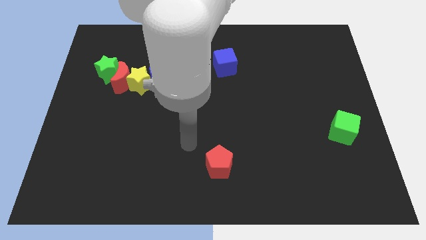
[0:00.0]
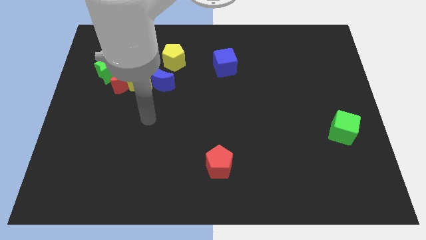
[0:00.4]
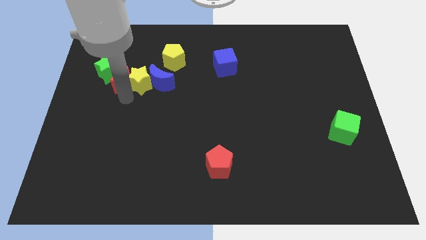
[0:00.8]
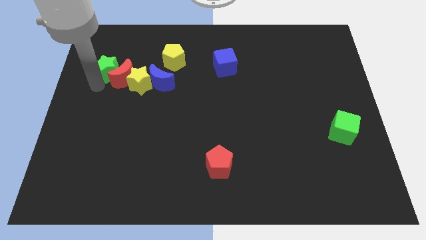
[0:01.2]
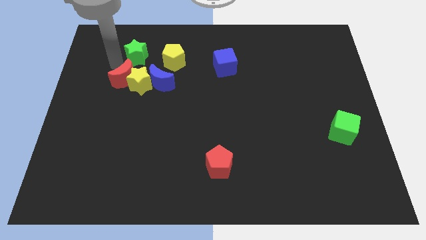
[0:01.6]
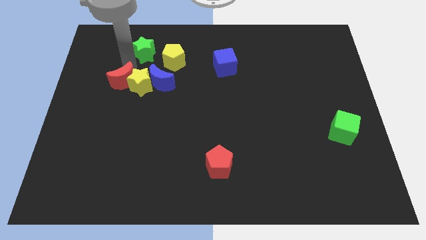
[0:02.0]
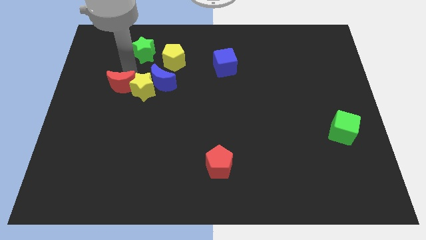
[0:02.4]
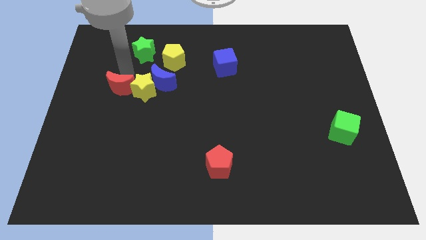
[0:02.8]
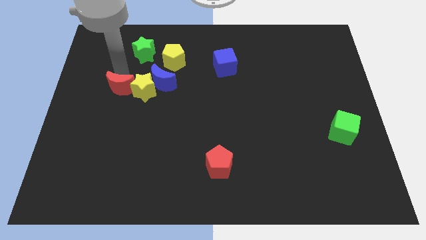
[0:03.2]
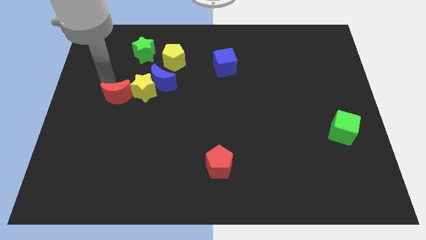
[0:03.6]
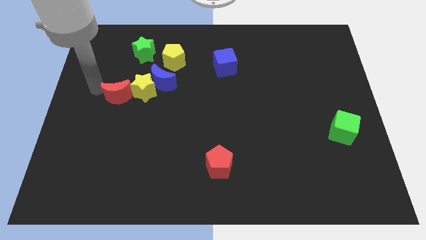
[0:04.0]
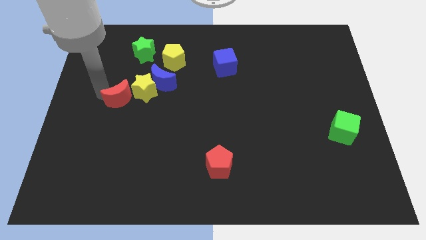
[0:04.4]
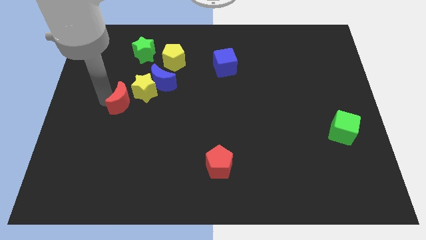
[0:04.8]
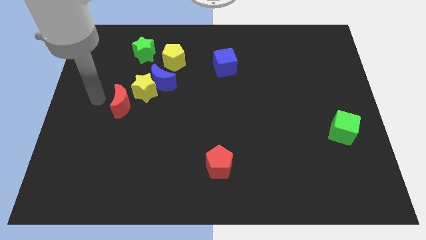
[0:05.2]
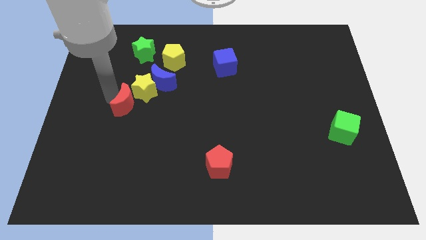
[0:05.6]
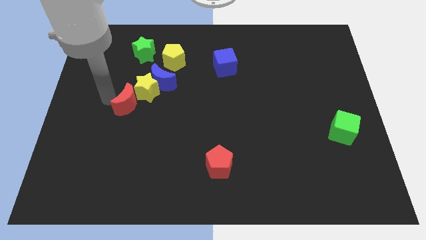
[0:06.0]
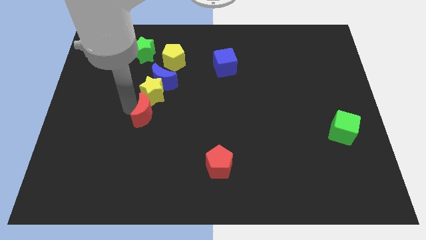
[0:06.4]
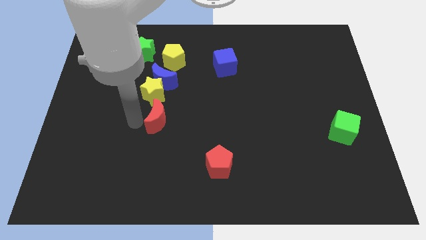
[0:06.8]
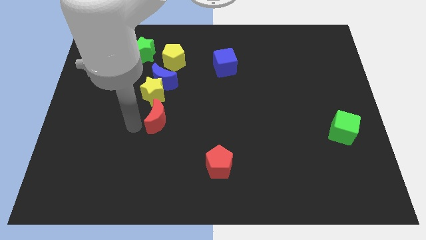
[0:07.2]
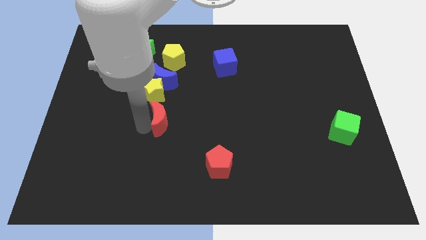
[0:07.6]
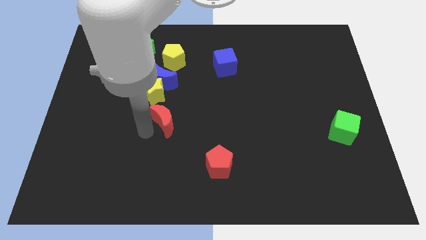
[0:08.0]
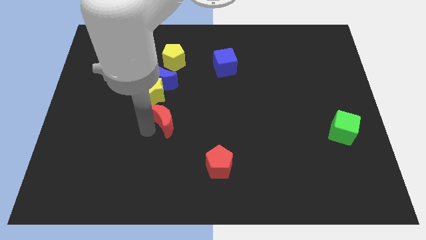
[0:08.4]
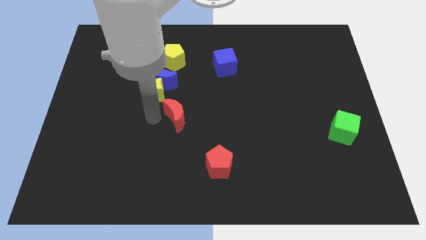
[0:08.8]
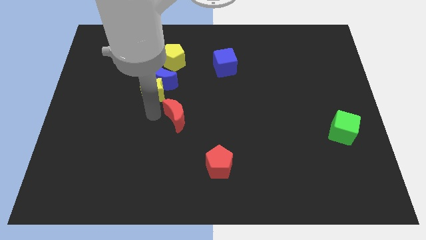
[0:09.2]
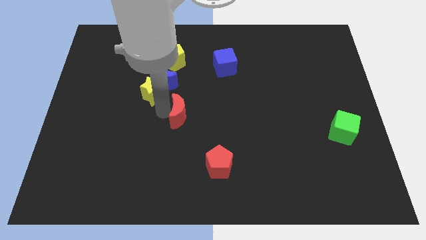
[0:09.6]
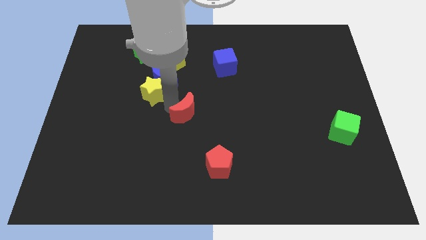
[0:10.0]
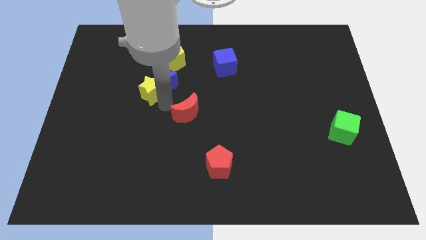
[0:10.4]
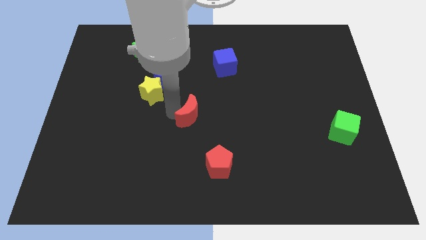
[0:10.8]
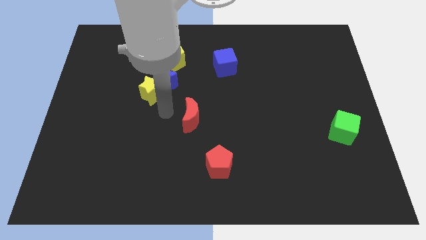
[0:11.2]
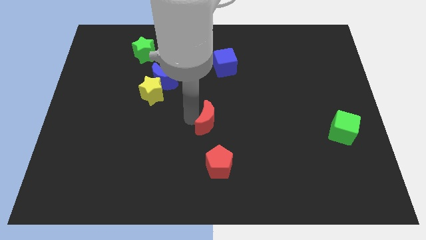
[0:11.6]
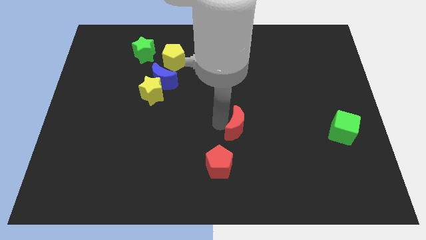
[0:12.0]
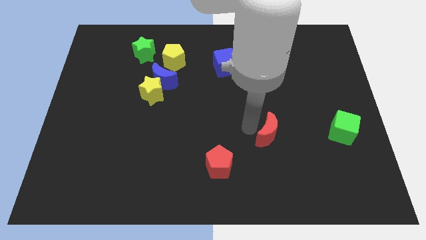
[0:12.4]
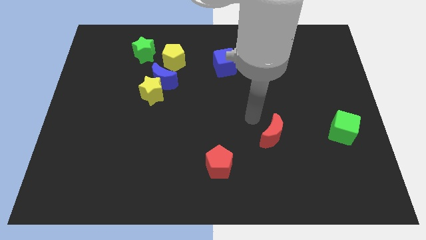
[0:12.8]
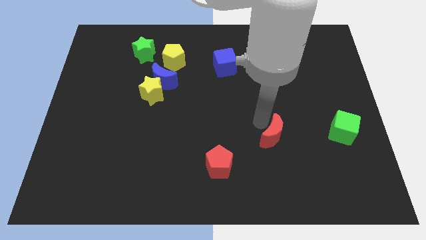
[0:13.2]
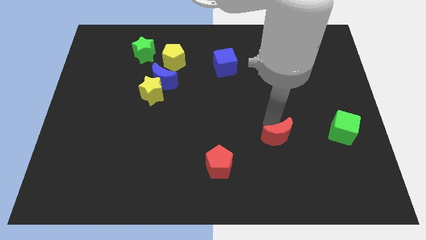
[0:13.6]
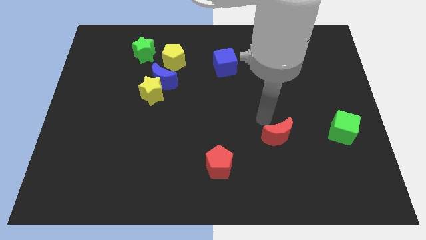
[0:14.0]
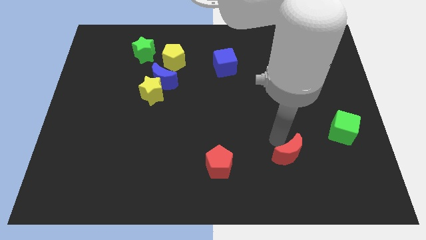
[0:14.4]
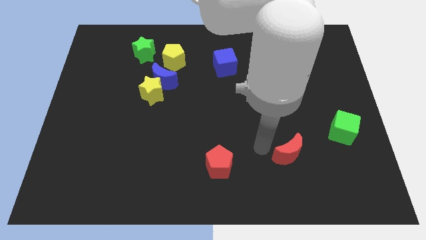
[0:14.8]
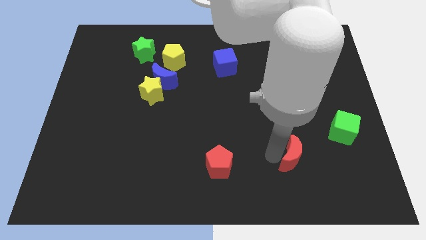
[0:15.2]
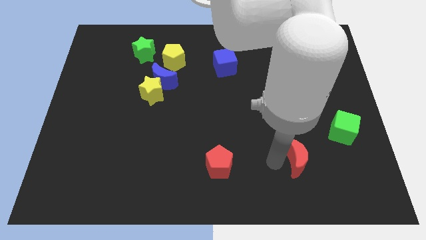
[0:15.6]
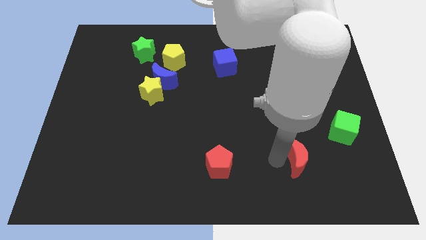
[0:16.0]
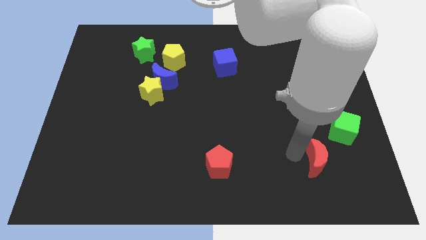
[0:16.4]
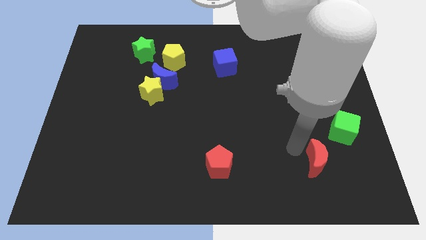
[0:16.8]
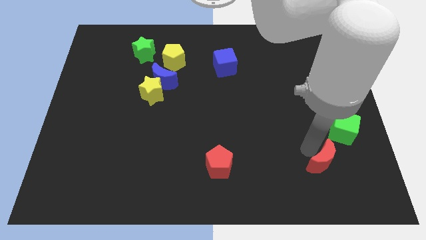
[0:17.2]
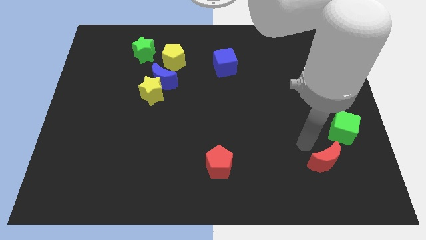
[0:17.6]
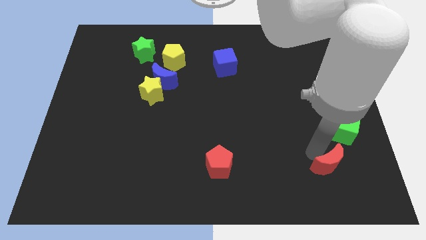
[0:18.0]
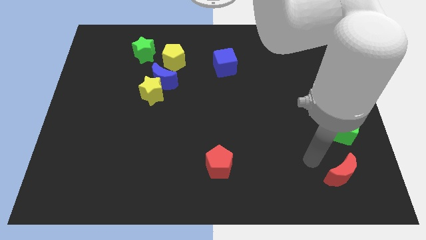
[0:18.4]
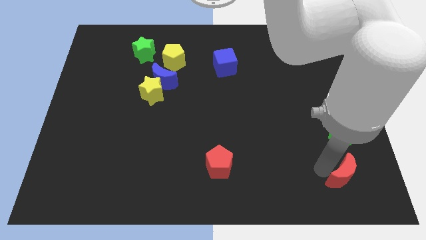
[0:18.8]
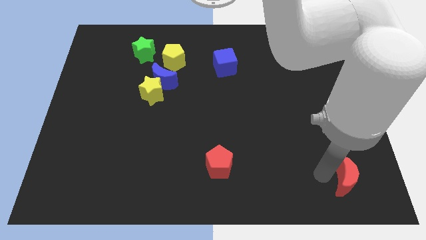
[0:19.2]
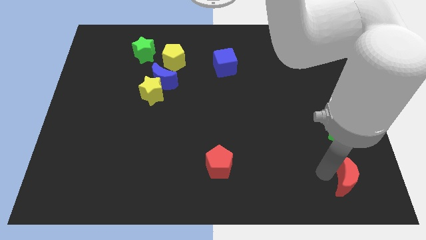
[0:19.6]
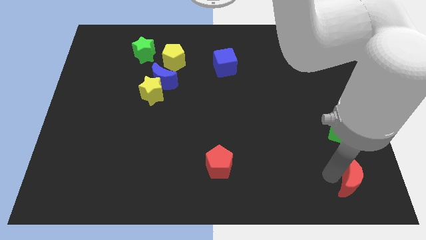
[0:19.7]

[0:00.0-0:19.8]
push the red moon to the lower right corner

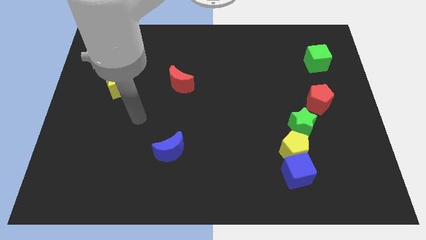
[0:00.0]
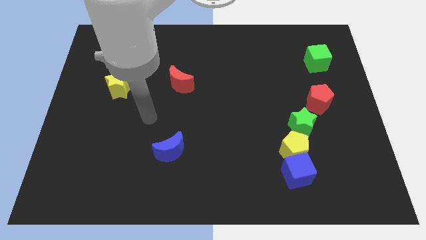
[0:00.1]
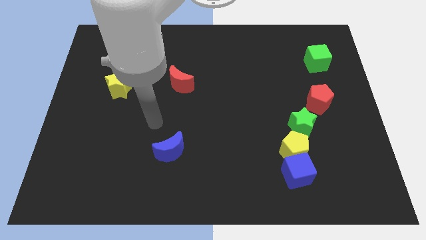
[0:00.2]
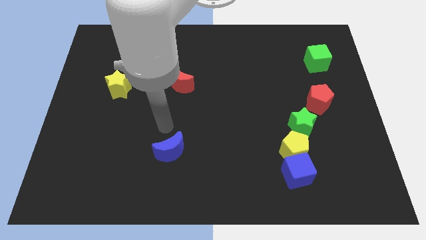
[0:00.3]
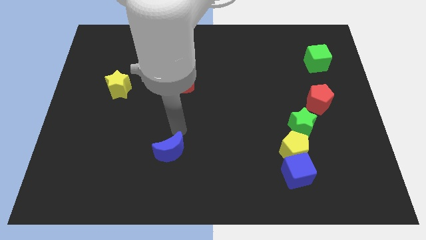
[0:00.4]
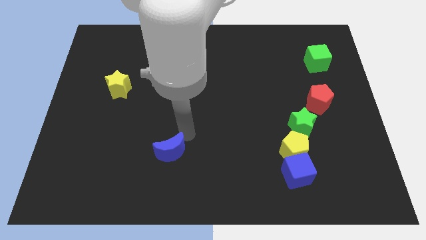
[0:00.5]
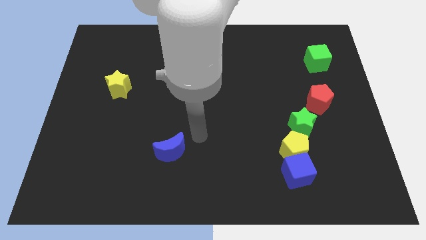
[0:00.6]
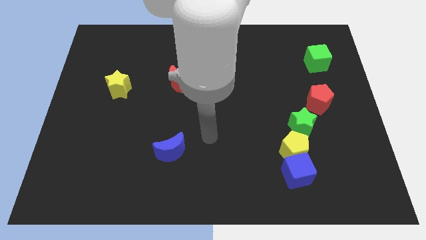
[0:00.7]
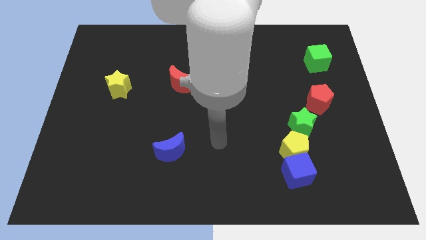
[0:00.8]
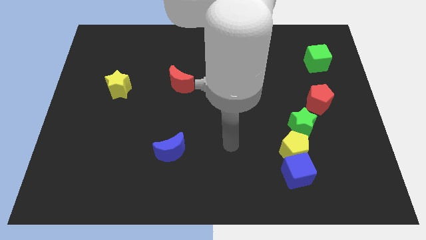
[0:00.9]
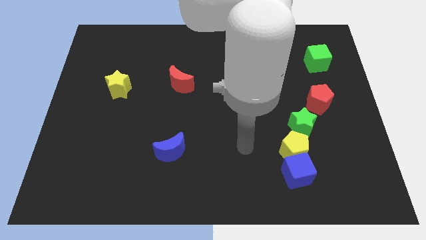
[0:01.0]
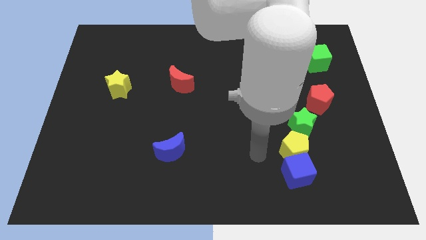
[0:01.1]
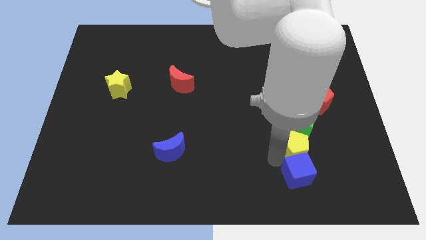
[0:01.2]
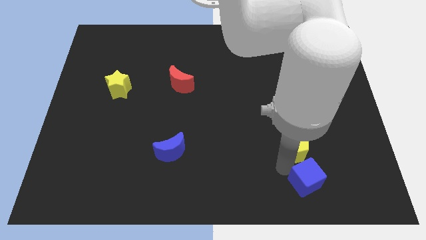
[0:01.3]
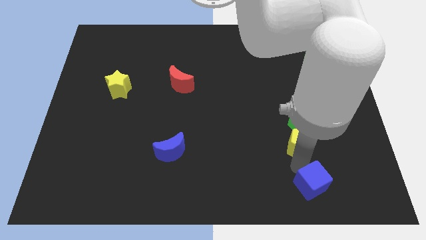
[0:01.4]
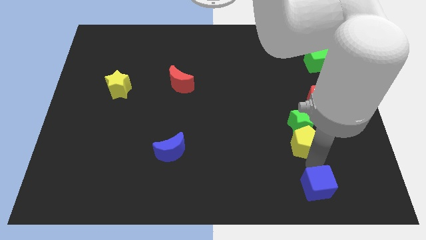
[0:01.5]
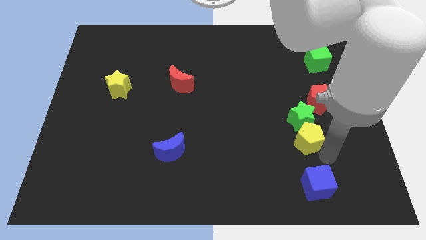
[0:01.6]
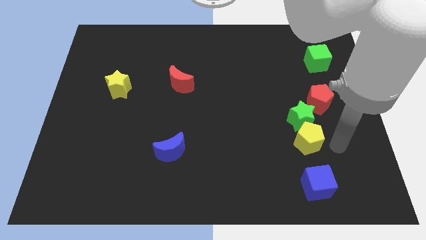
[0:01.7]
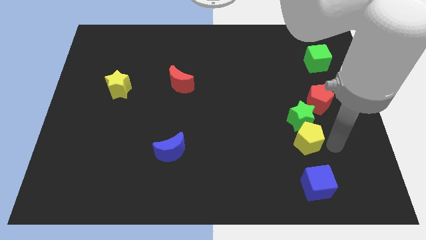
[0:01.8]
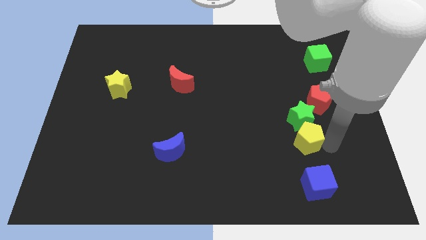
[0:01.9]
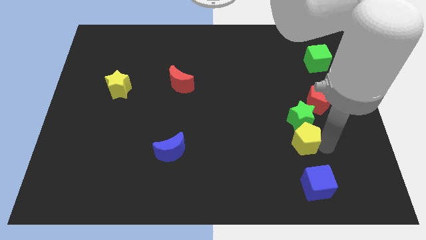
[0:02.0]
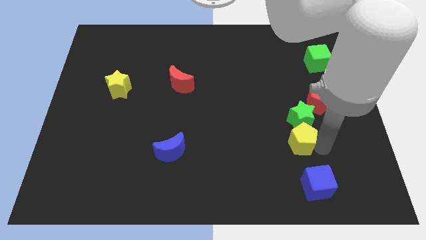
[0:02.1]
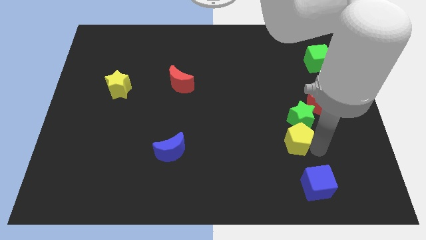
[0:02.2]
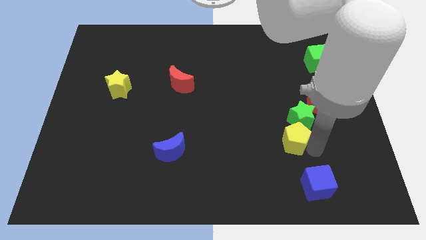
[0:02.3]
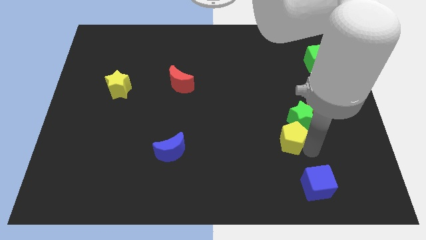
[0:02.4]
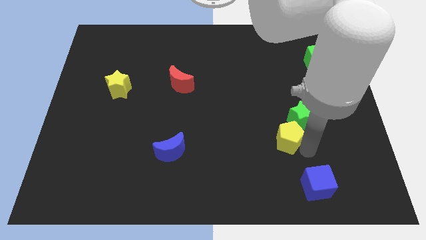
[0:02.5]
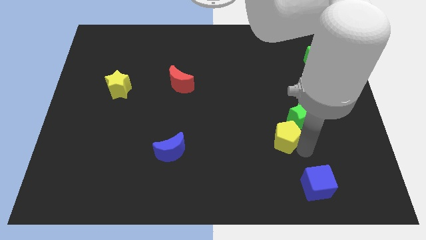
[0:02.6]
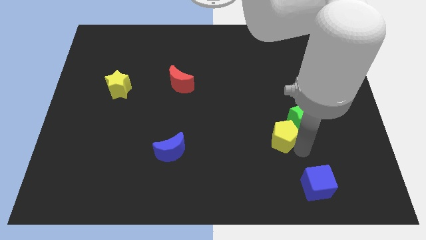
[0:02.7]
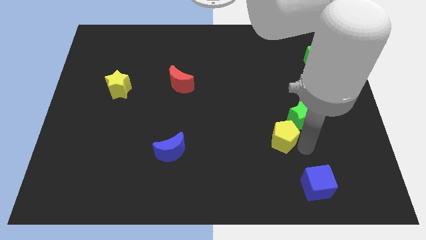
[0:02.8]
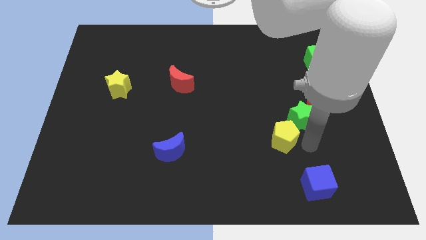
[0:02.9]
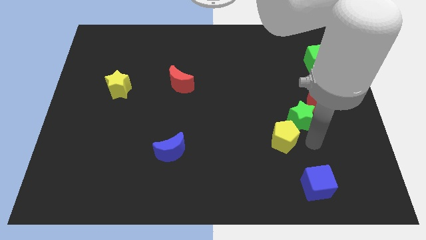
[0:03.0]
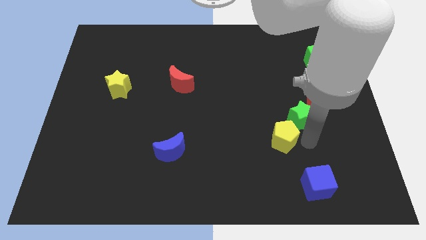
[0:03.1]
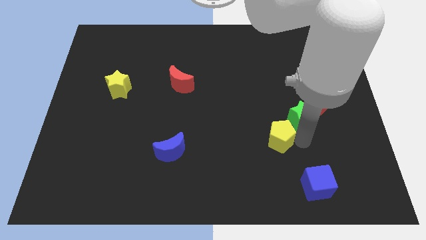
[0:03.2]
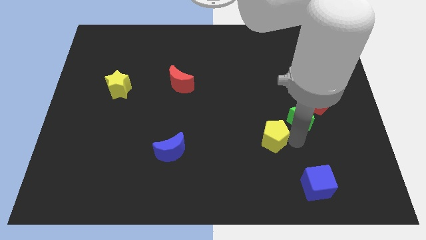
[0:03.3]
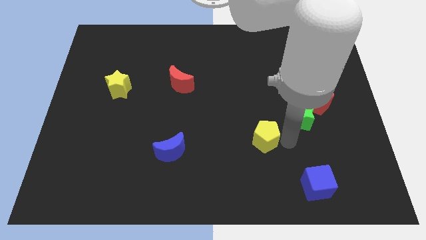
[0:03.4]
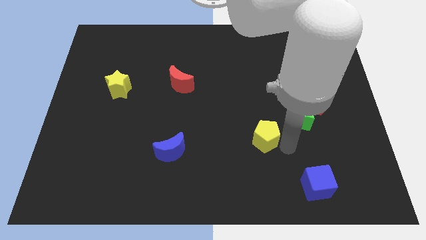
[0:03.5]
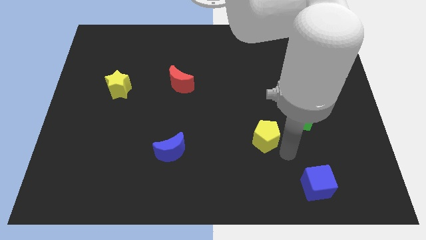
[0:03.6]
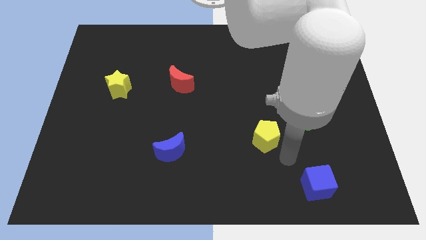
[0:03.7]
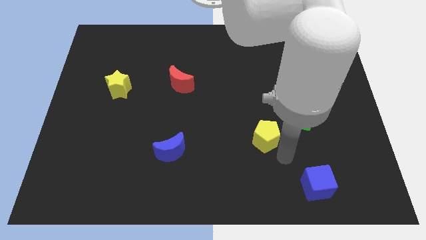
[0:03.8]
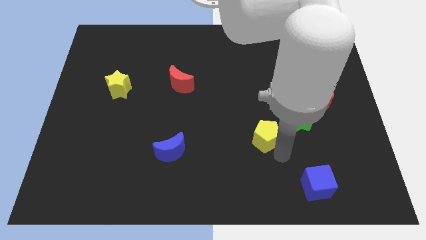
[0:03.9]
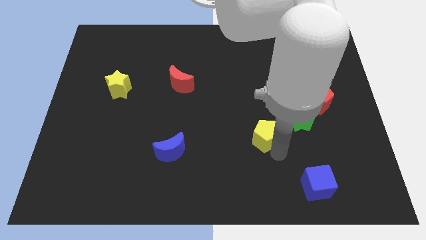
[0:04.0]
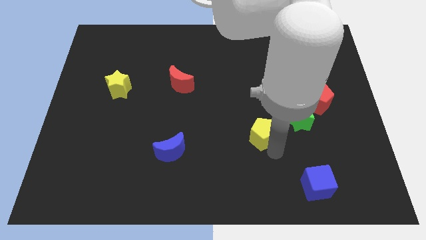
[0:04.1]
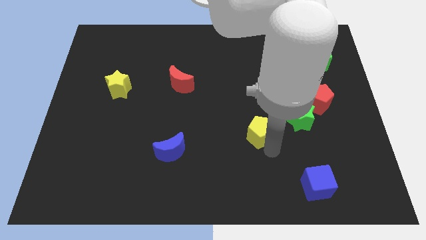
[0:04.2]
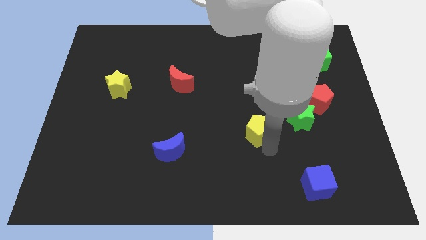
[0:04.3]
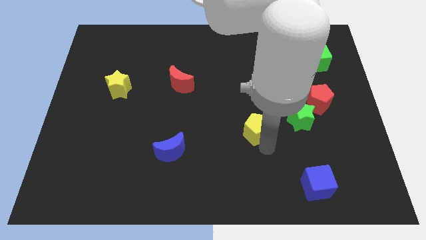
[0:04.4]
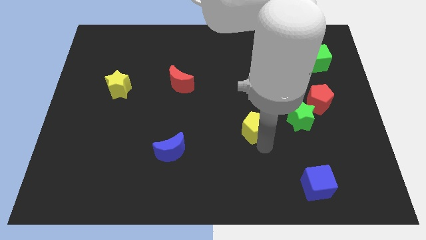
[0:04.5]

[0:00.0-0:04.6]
put the yellow pentagon to the middle
